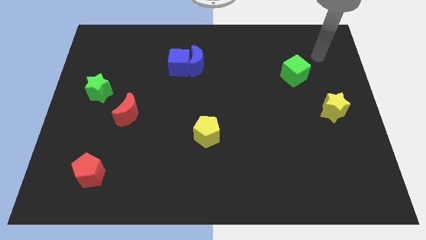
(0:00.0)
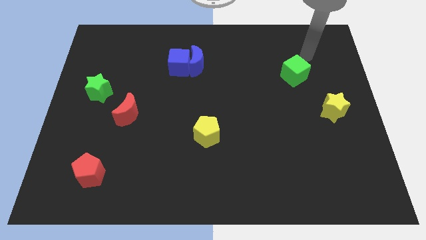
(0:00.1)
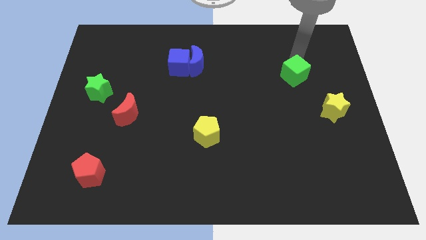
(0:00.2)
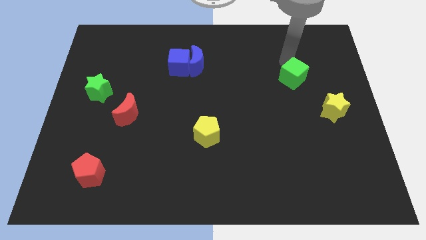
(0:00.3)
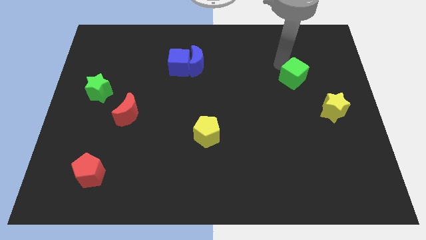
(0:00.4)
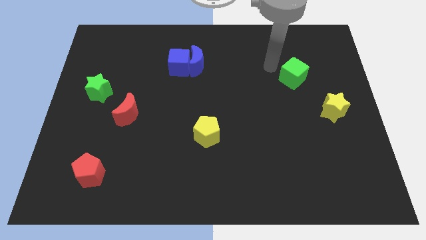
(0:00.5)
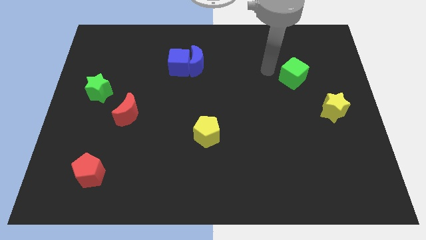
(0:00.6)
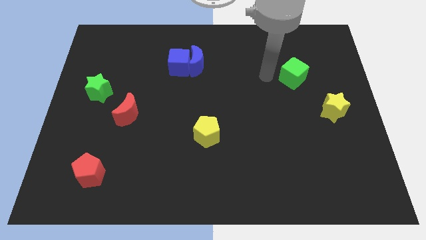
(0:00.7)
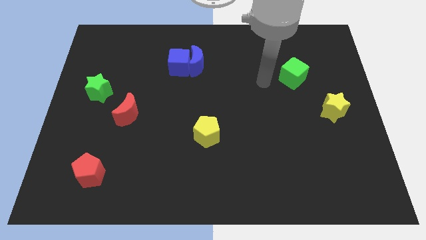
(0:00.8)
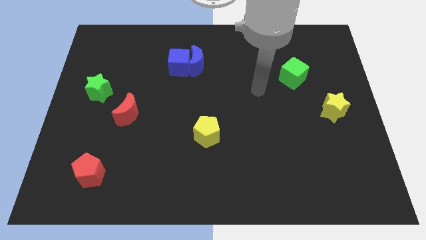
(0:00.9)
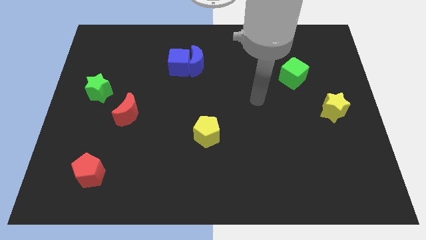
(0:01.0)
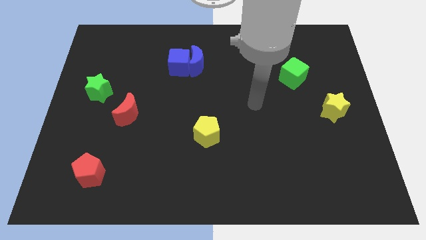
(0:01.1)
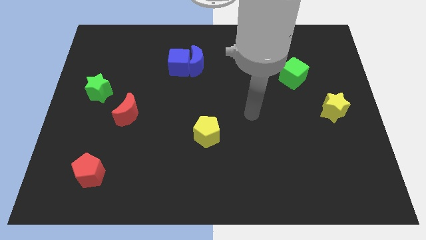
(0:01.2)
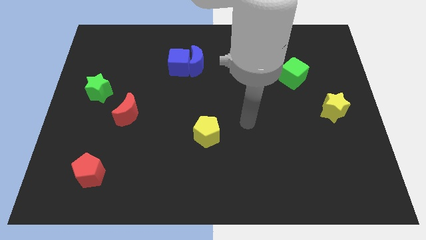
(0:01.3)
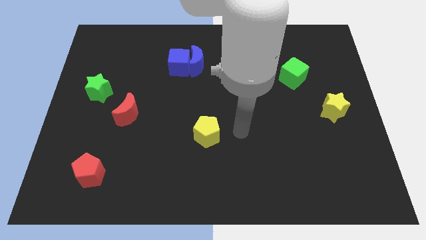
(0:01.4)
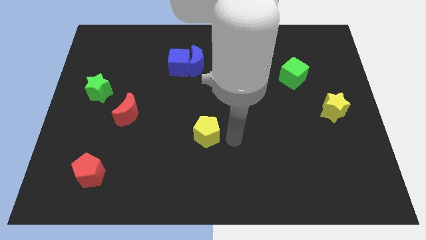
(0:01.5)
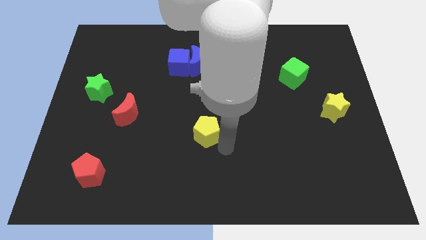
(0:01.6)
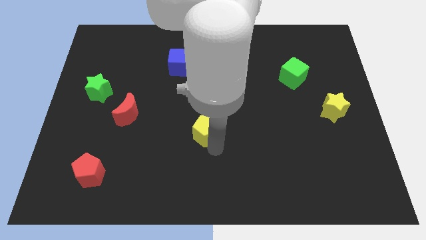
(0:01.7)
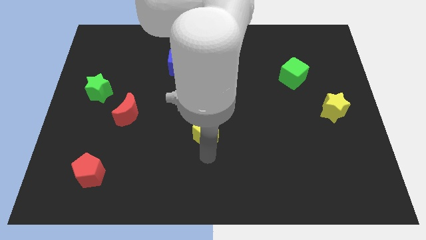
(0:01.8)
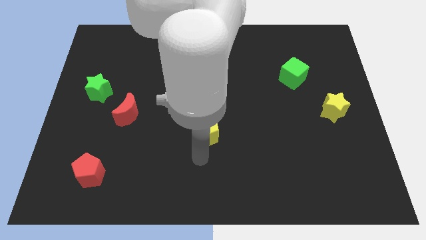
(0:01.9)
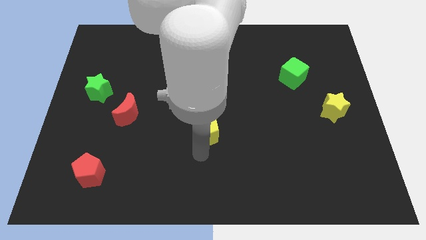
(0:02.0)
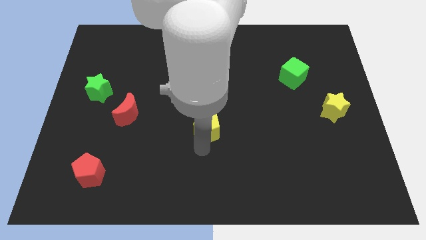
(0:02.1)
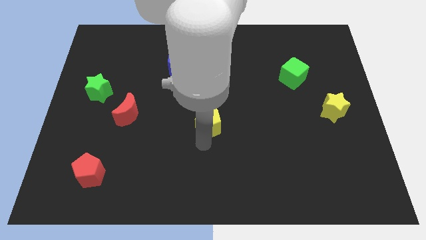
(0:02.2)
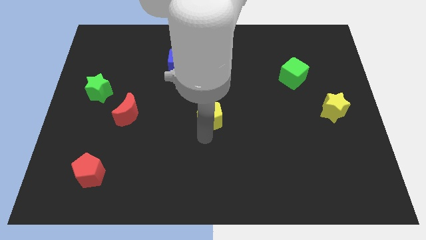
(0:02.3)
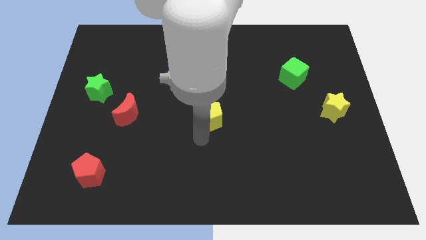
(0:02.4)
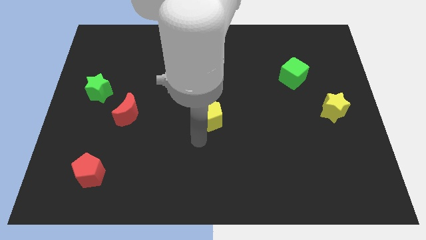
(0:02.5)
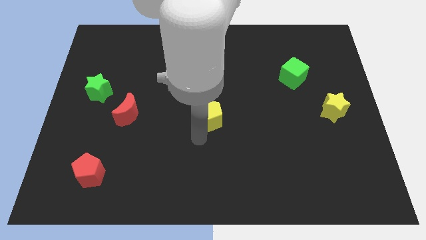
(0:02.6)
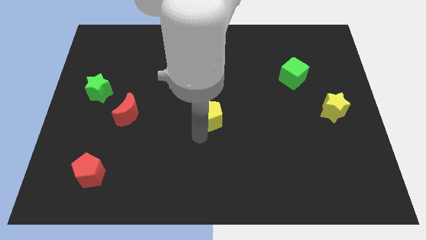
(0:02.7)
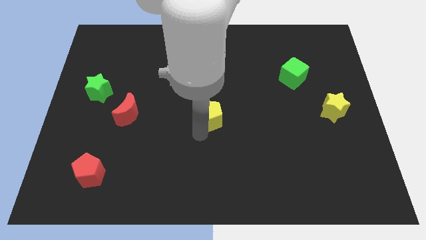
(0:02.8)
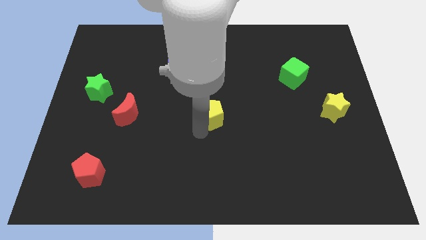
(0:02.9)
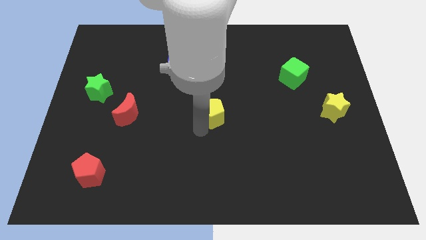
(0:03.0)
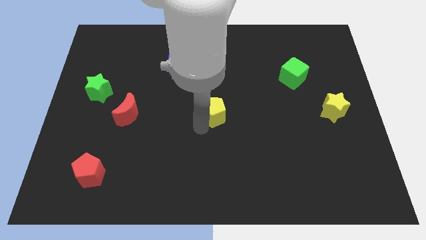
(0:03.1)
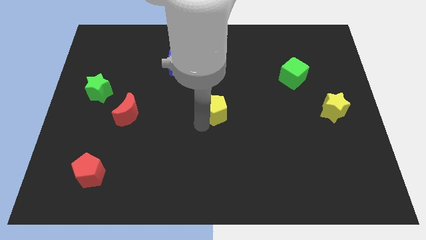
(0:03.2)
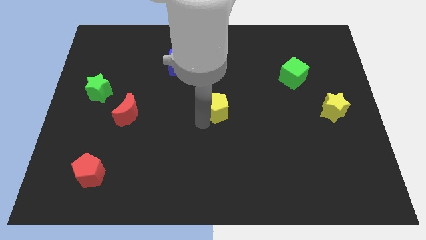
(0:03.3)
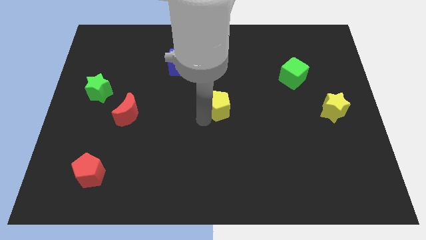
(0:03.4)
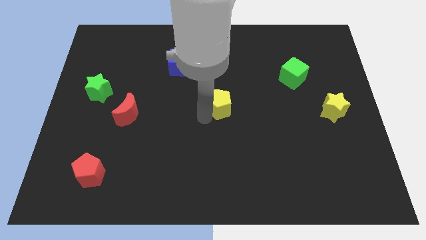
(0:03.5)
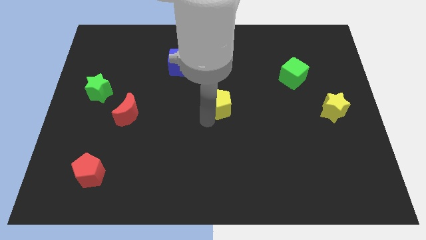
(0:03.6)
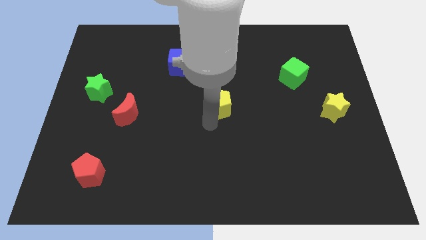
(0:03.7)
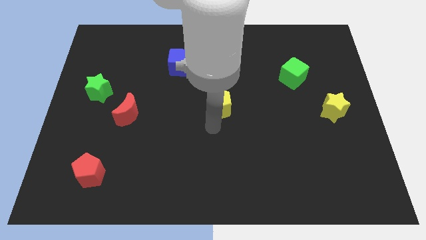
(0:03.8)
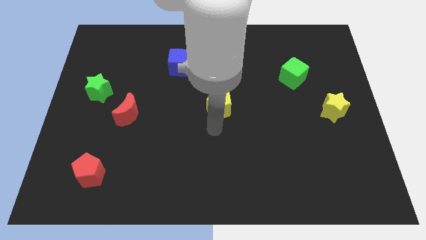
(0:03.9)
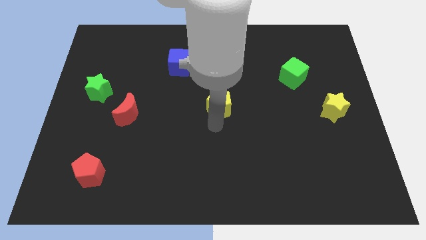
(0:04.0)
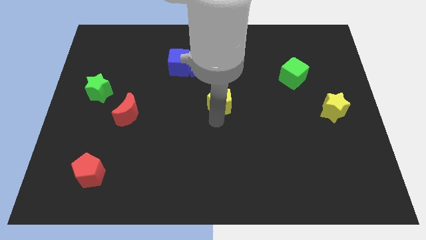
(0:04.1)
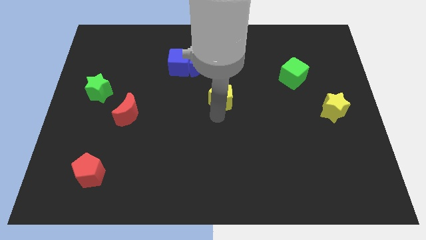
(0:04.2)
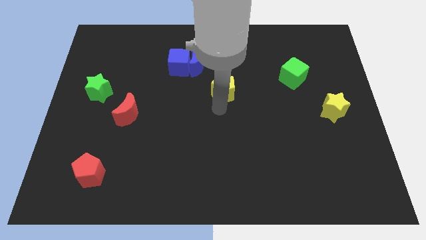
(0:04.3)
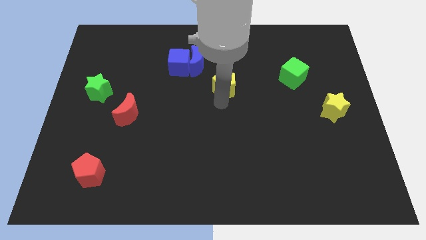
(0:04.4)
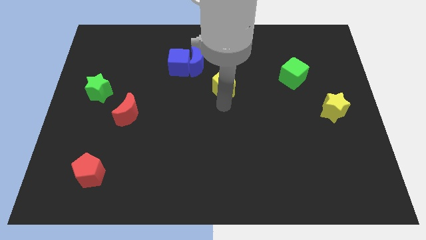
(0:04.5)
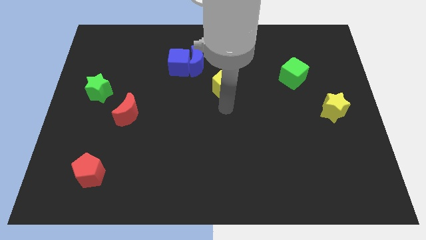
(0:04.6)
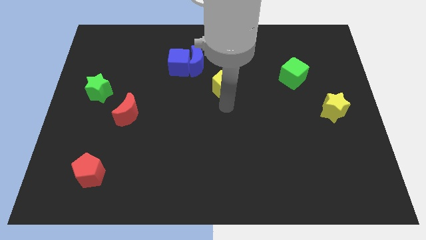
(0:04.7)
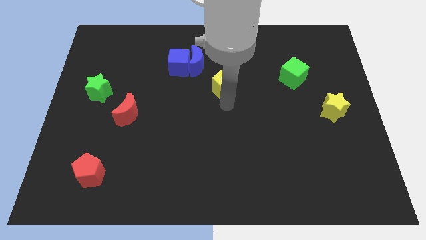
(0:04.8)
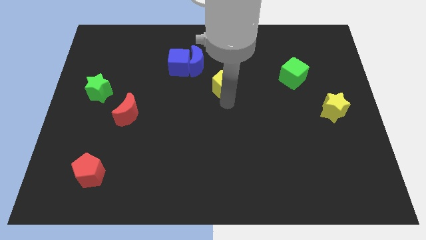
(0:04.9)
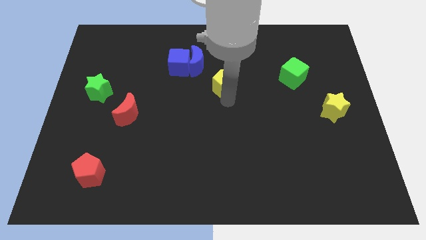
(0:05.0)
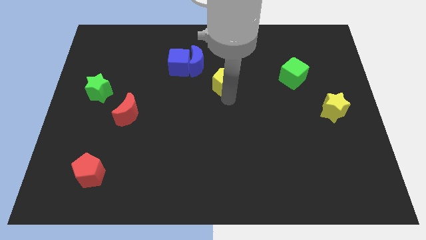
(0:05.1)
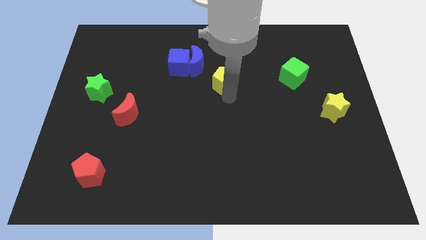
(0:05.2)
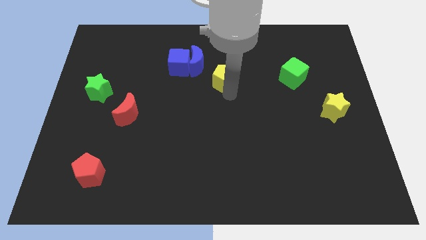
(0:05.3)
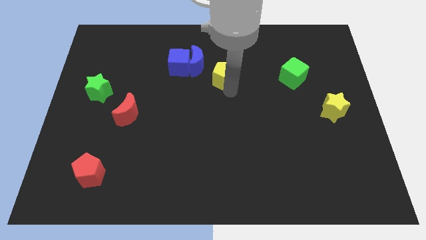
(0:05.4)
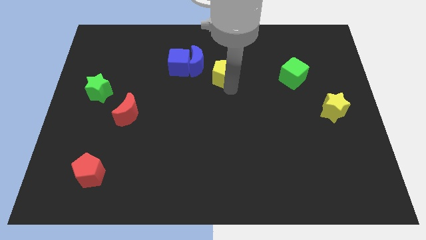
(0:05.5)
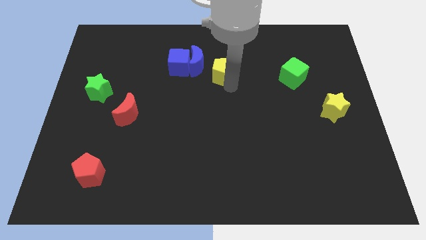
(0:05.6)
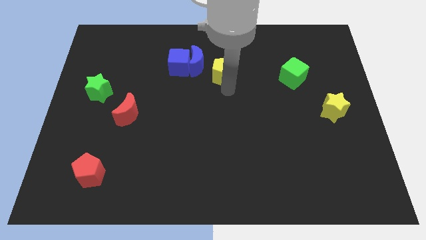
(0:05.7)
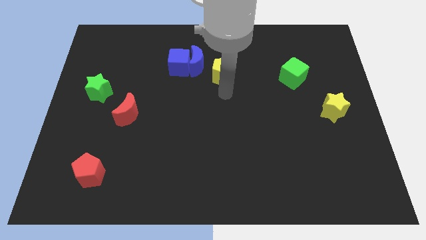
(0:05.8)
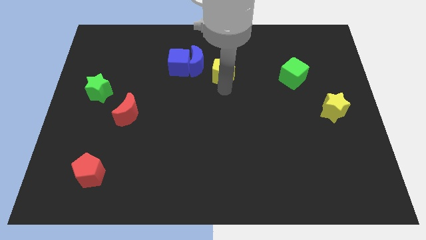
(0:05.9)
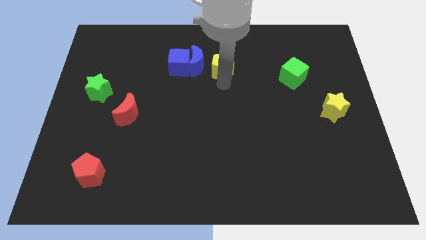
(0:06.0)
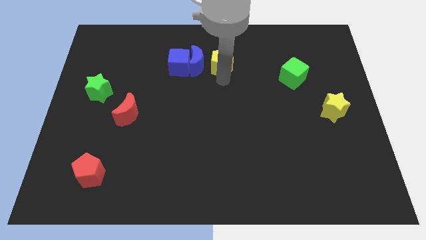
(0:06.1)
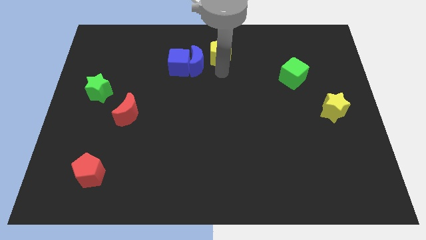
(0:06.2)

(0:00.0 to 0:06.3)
move the yellow pentagon to the top side

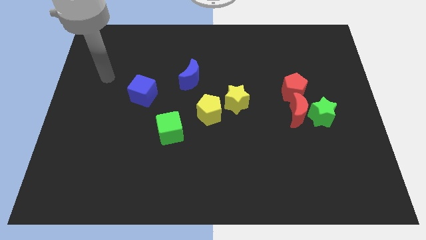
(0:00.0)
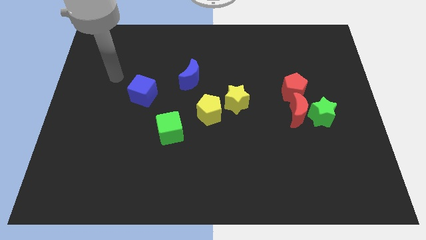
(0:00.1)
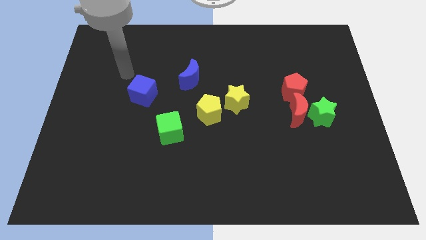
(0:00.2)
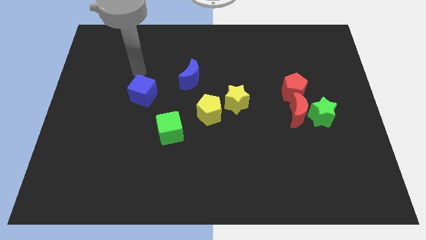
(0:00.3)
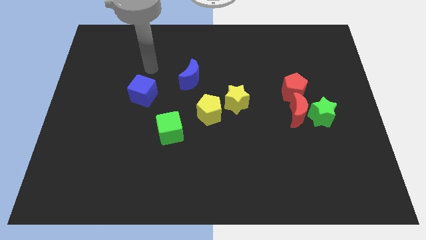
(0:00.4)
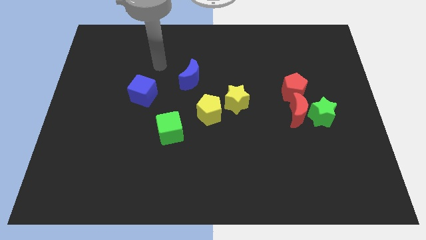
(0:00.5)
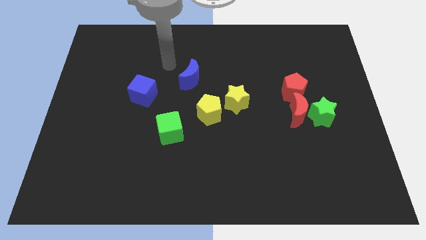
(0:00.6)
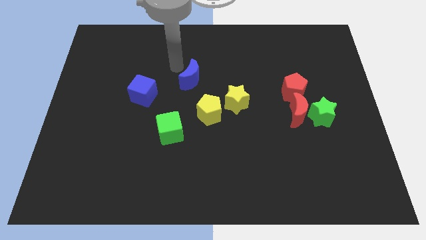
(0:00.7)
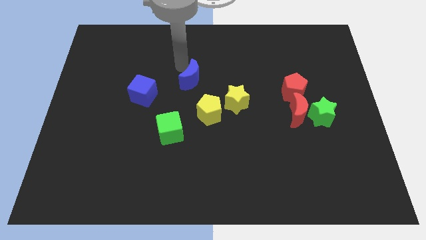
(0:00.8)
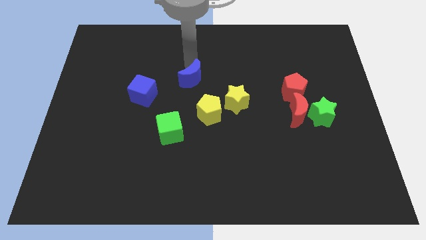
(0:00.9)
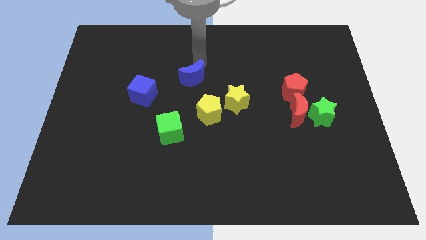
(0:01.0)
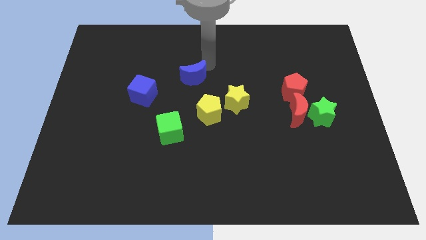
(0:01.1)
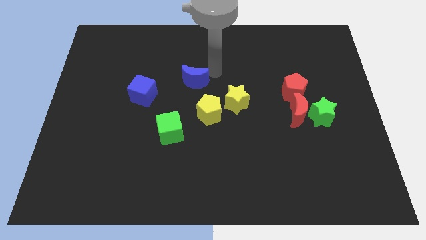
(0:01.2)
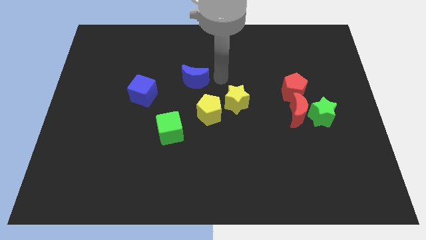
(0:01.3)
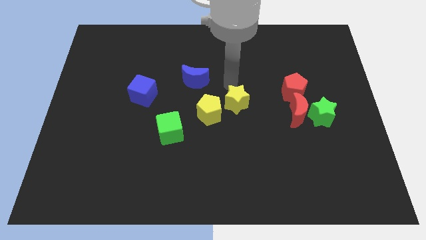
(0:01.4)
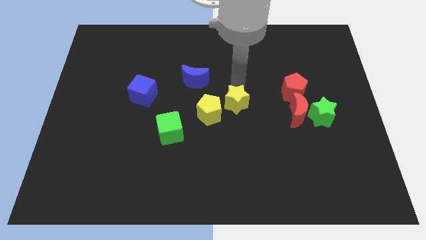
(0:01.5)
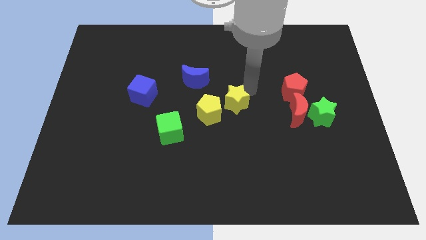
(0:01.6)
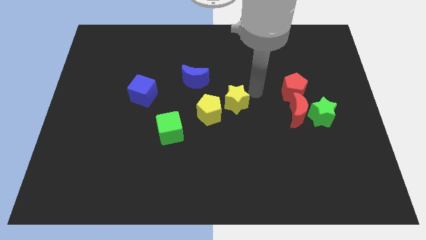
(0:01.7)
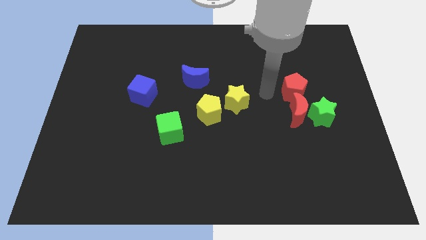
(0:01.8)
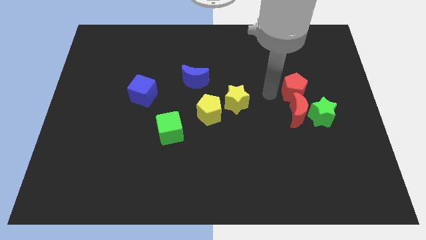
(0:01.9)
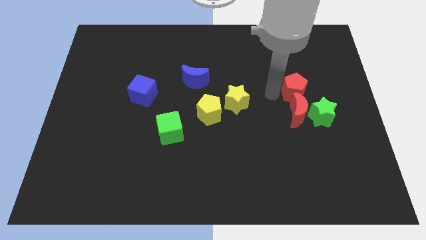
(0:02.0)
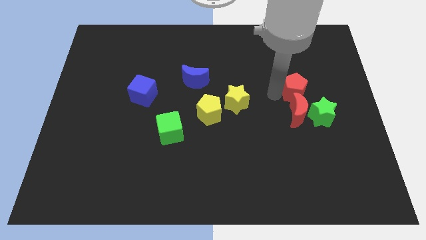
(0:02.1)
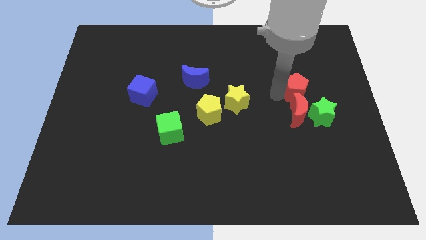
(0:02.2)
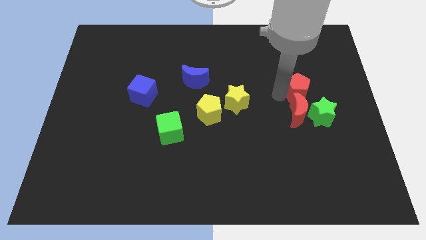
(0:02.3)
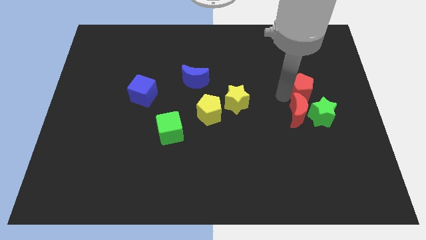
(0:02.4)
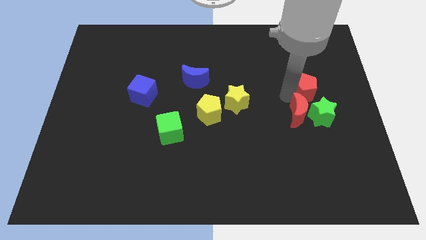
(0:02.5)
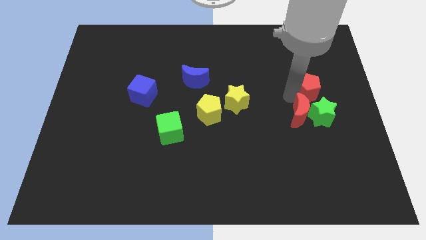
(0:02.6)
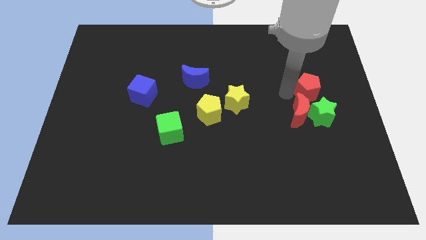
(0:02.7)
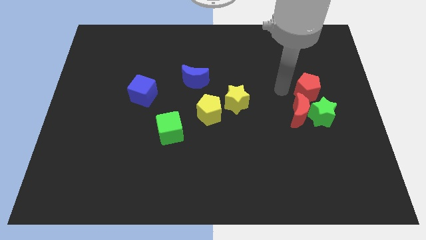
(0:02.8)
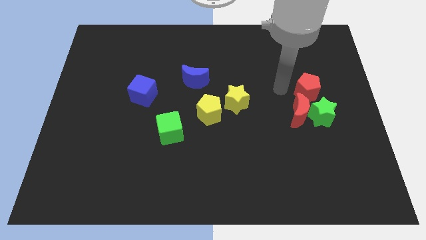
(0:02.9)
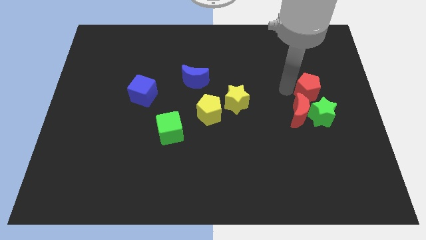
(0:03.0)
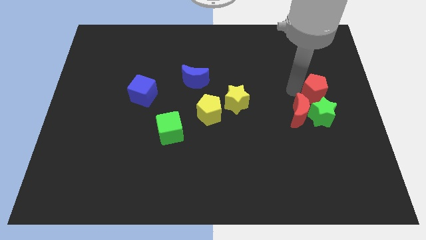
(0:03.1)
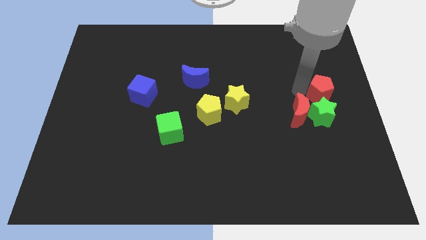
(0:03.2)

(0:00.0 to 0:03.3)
slide the red pentagon to the right side of the board
